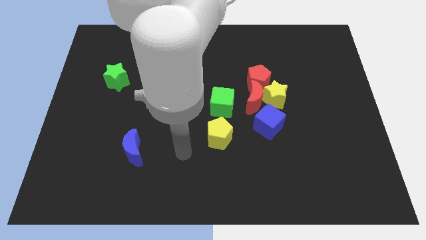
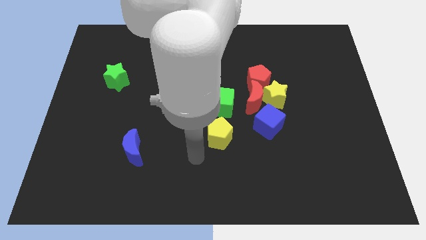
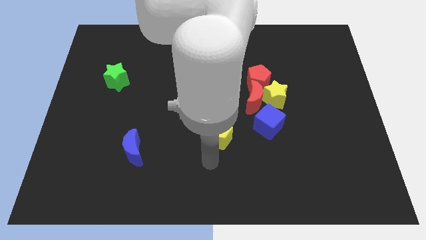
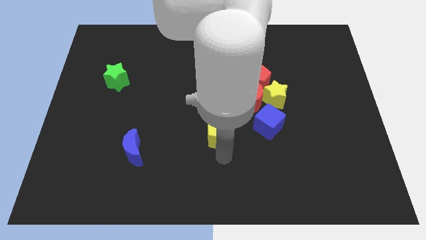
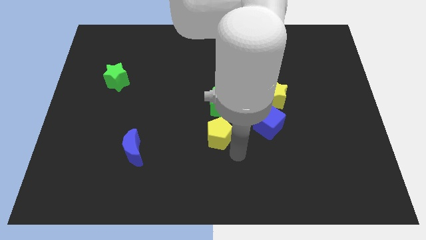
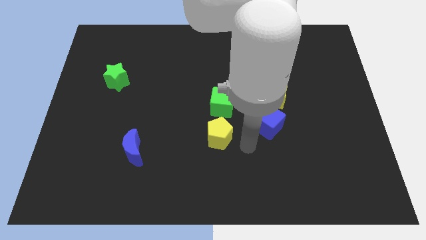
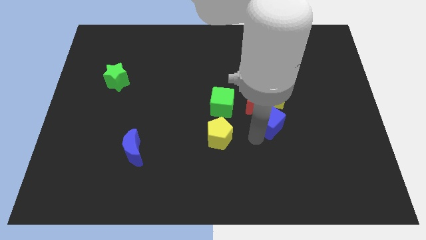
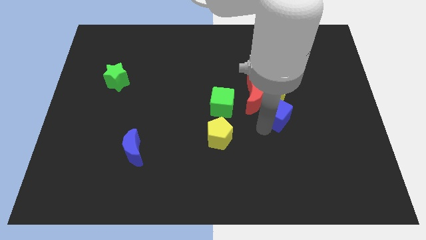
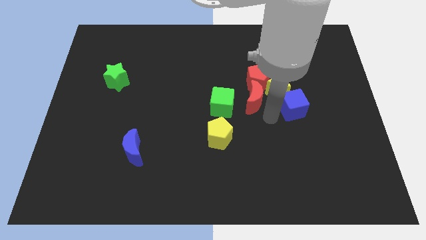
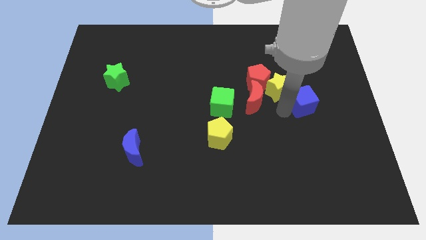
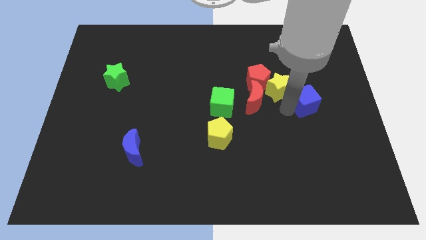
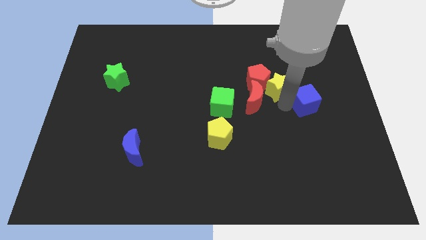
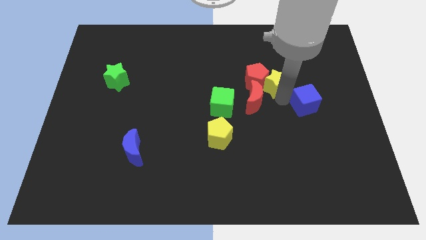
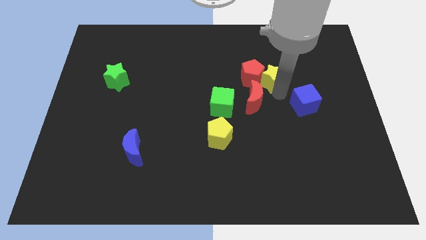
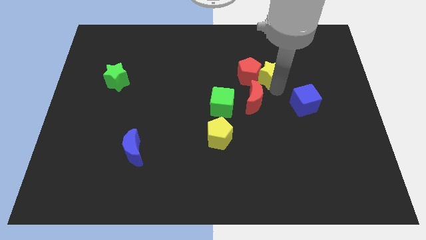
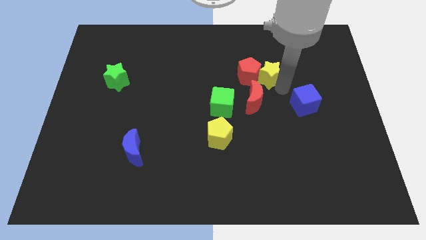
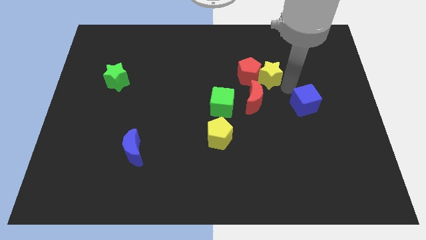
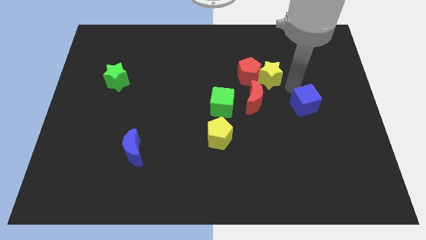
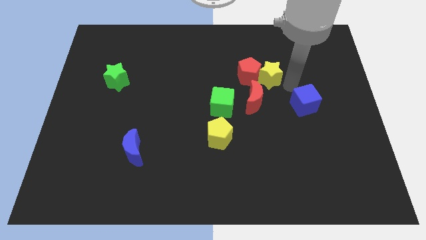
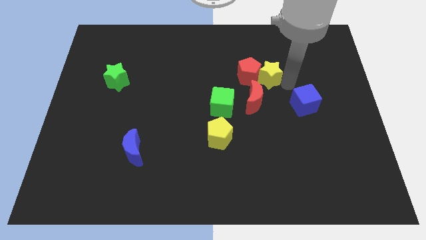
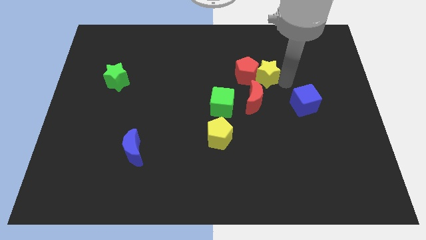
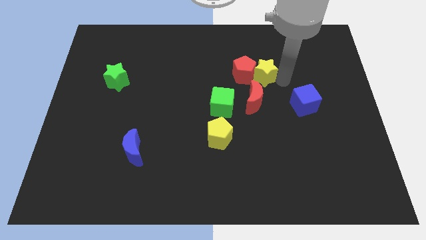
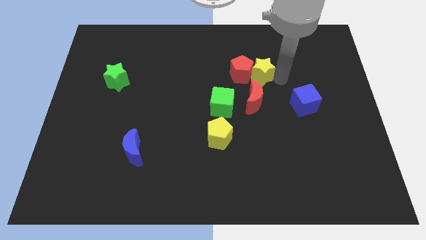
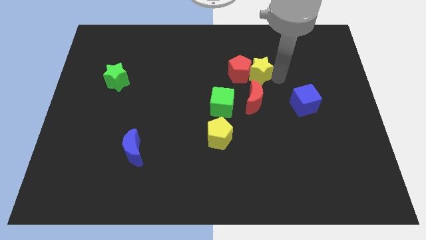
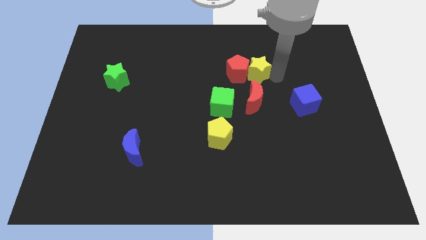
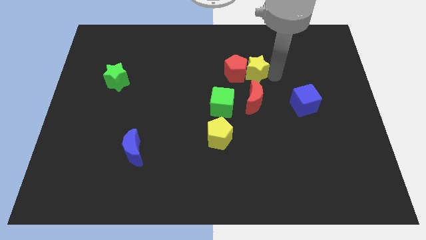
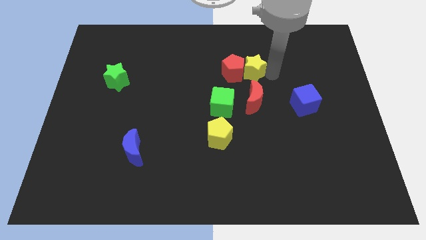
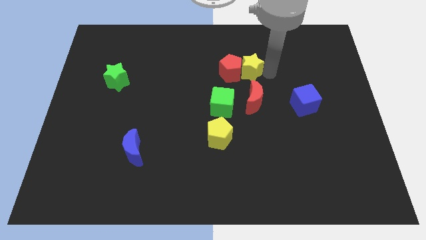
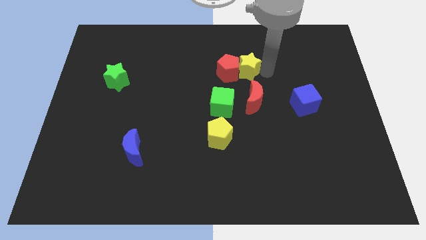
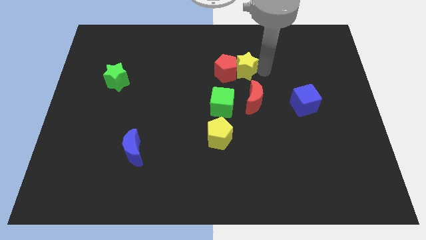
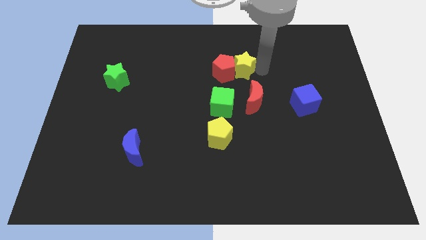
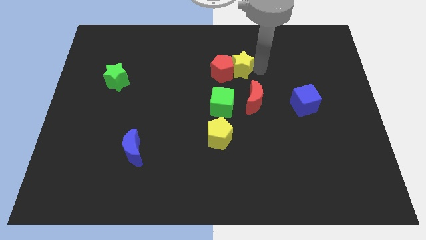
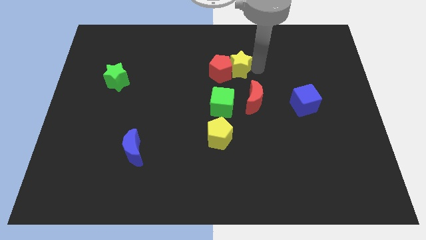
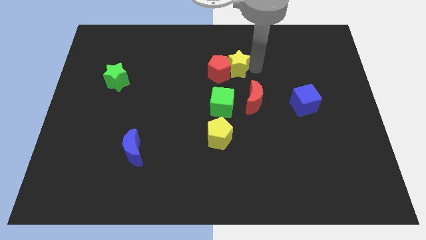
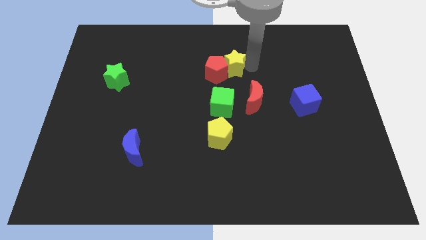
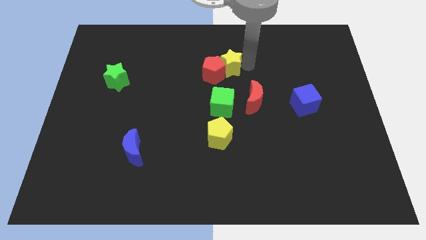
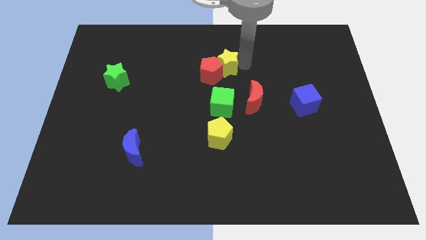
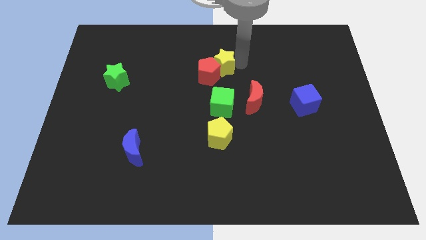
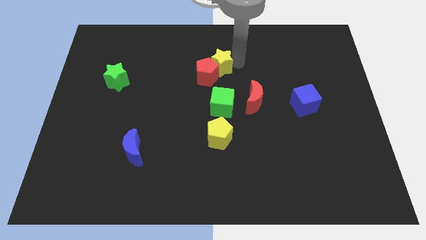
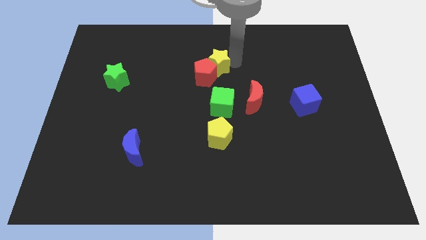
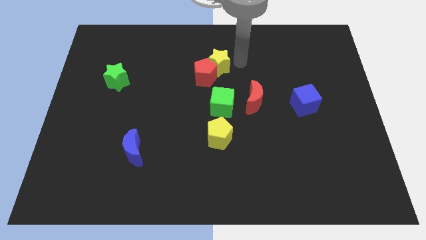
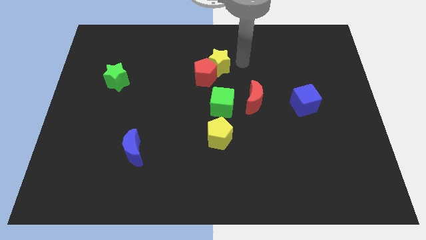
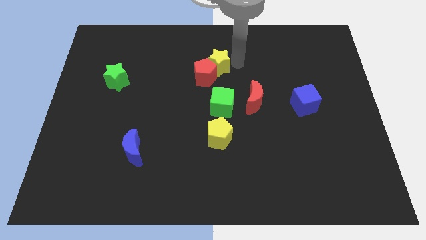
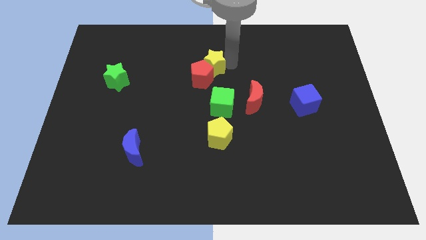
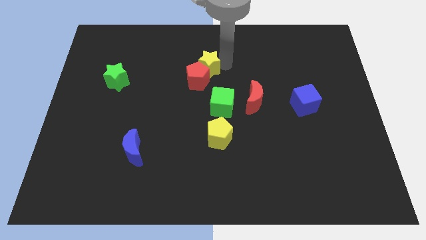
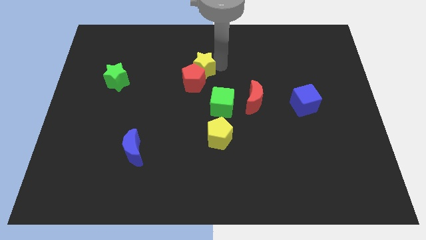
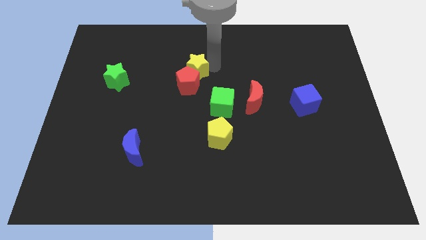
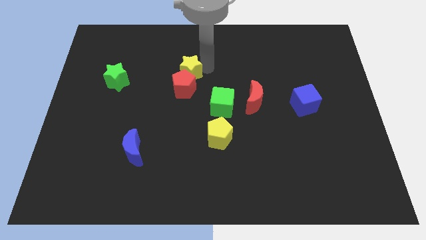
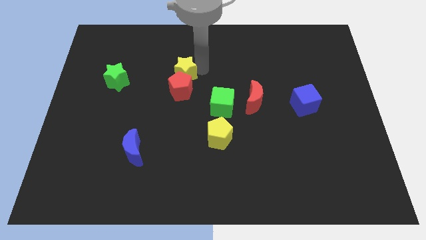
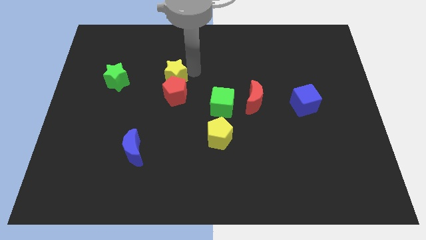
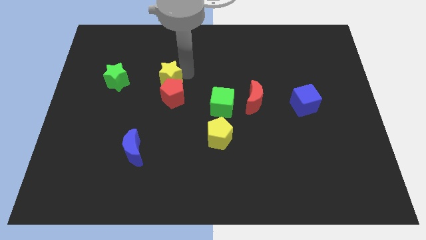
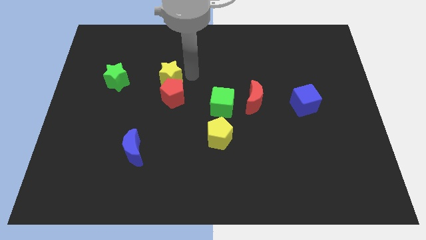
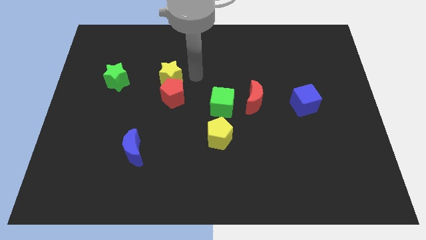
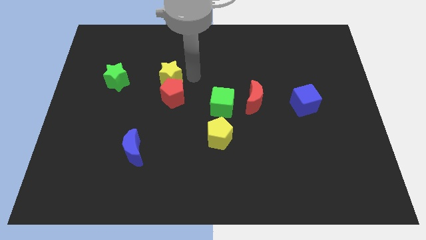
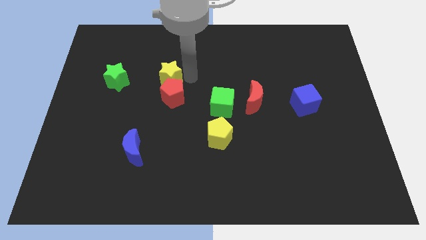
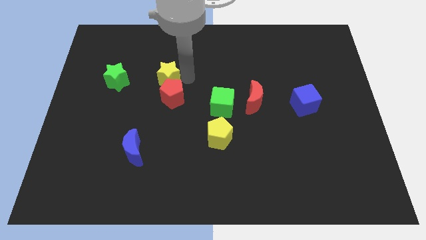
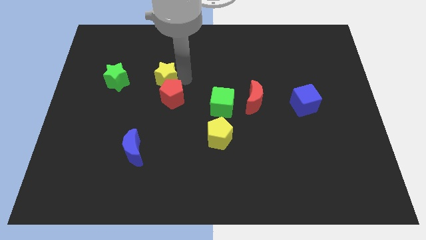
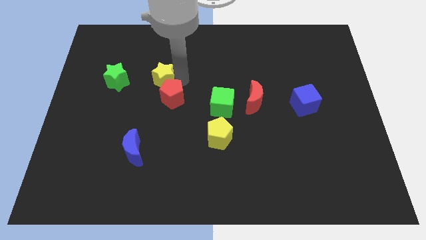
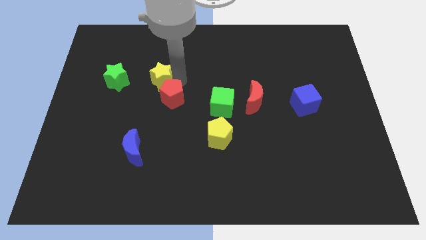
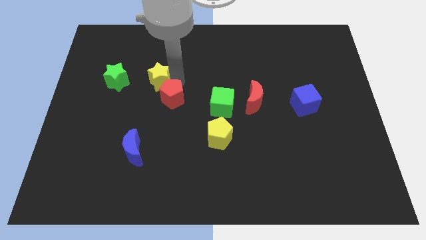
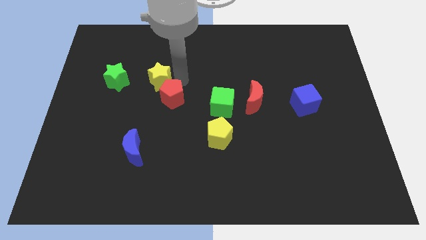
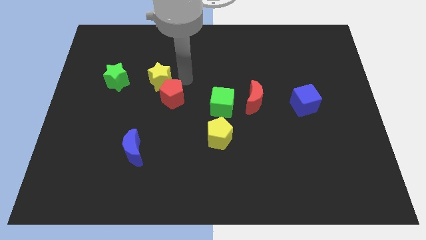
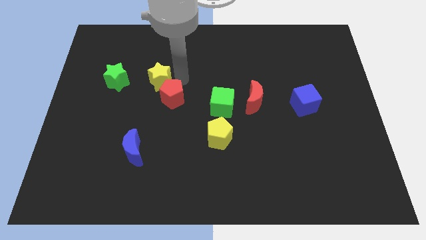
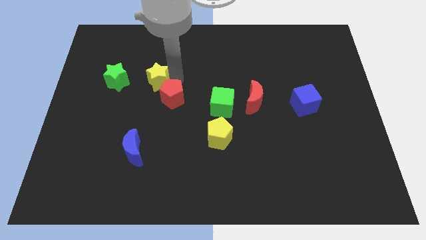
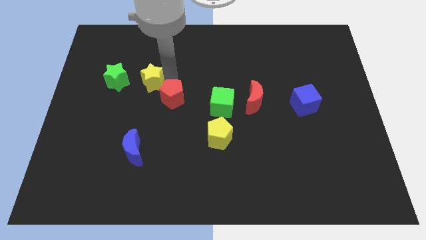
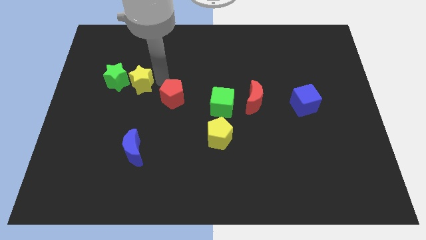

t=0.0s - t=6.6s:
push the yellow star to the green star

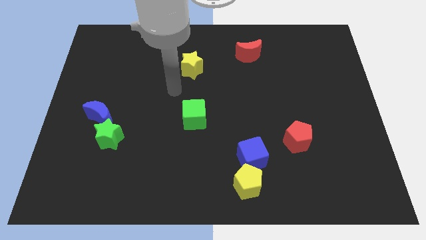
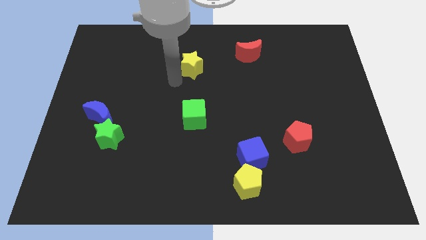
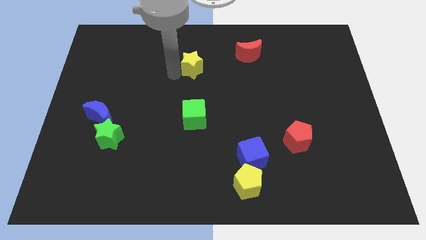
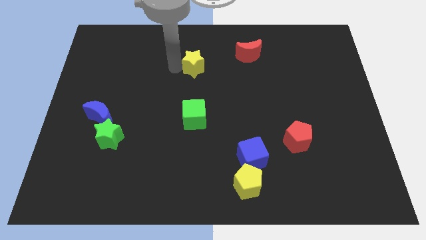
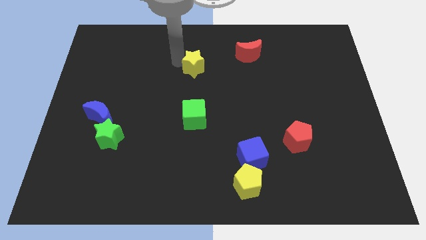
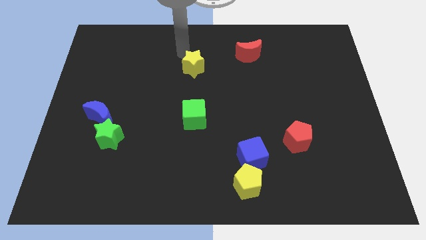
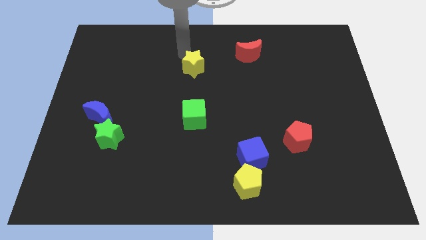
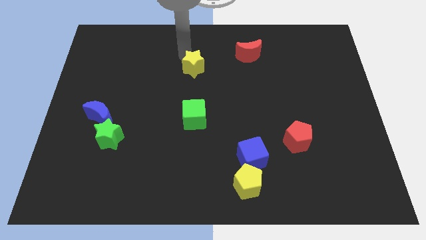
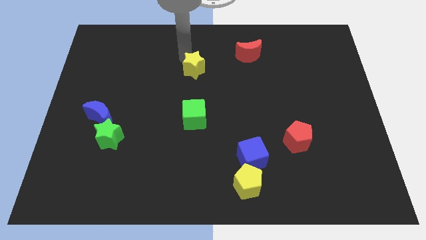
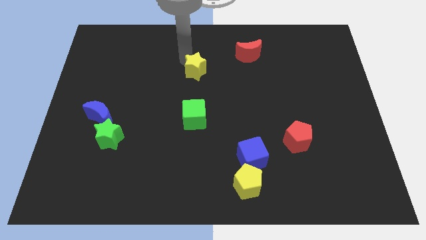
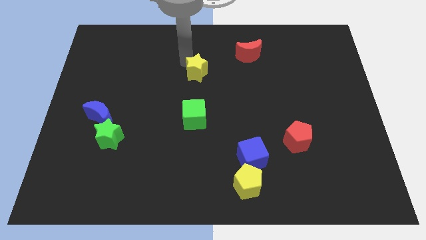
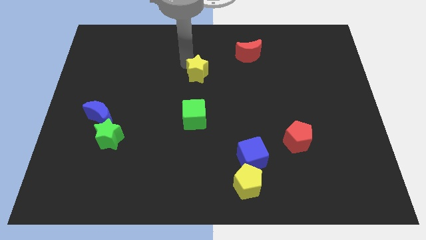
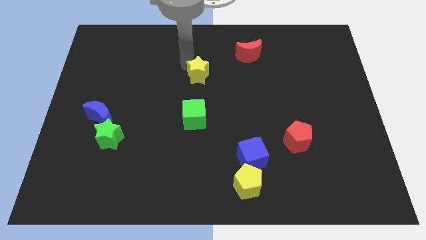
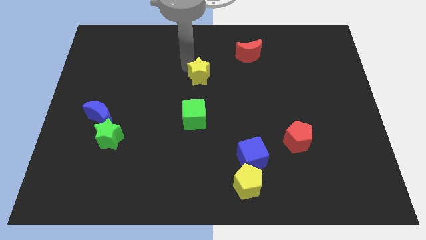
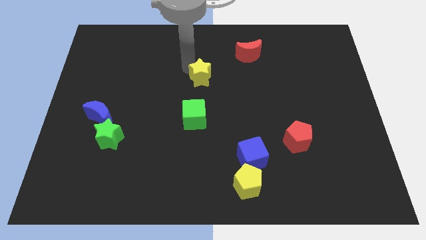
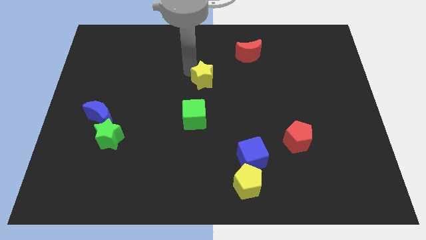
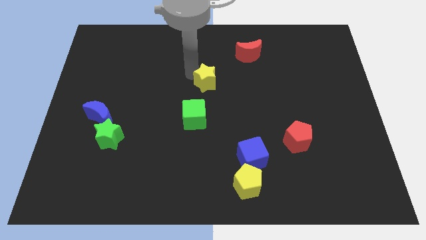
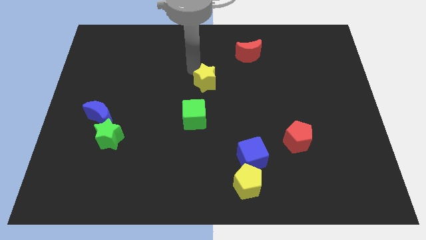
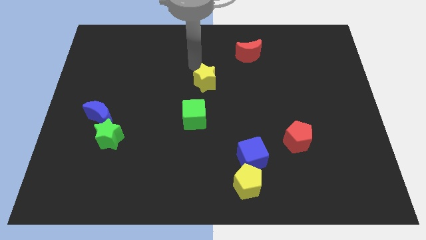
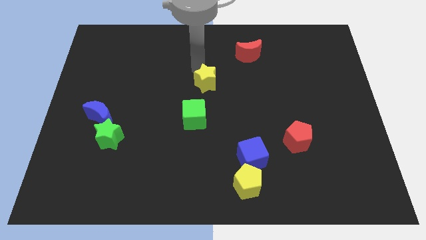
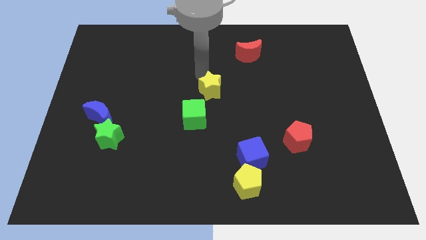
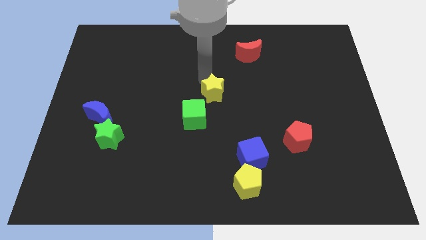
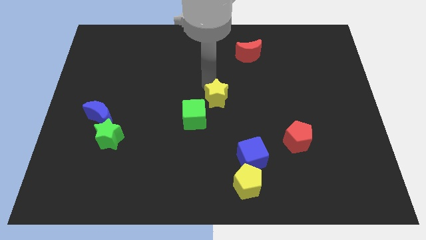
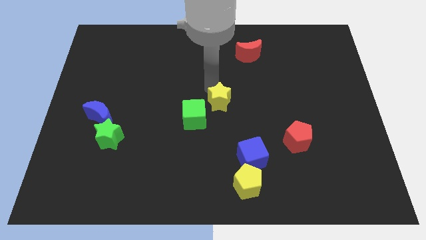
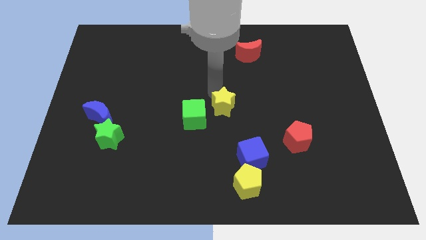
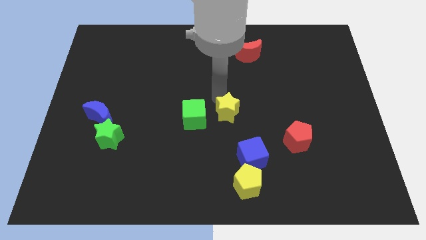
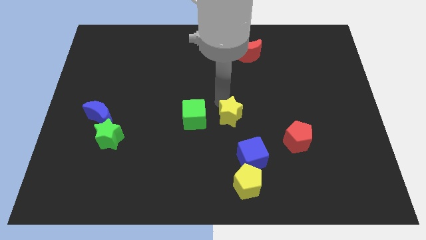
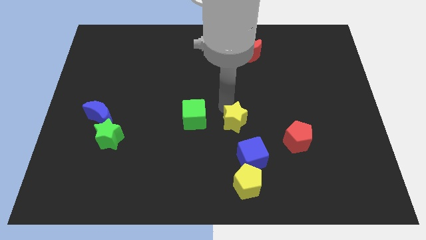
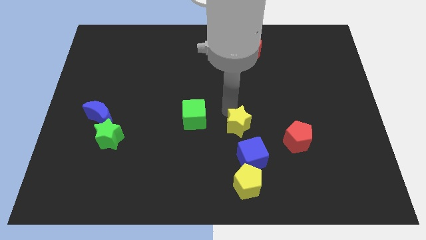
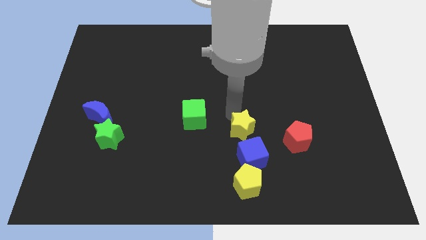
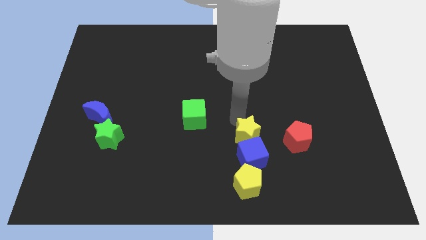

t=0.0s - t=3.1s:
put the yellow star next to the blue cube
